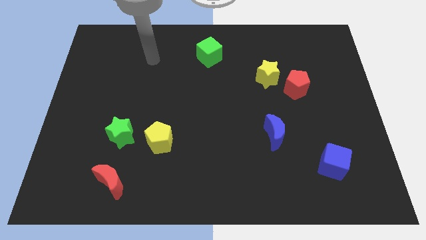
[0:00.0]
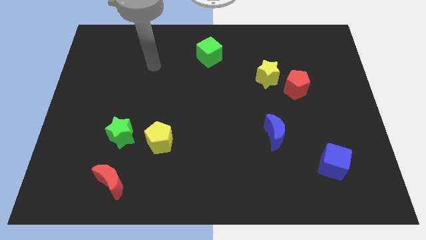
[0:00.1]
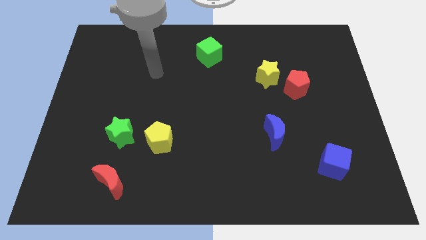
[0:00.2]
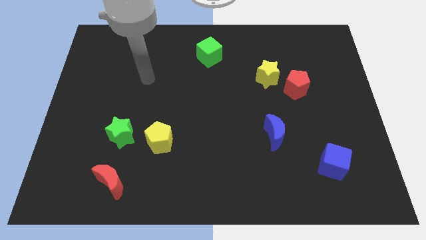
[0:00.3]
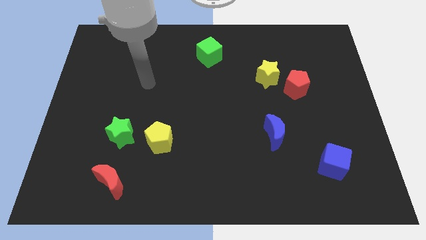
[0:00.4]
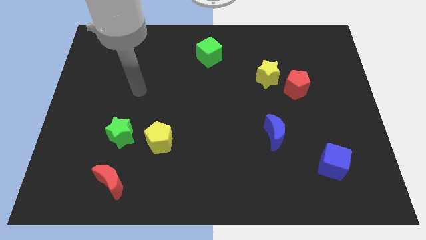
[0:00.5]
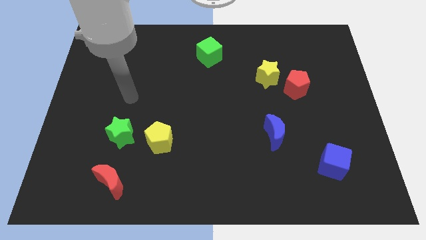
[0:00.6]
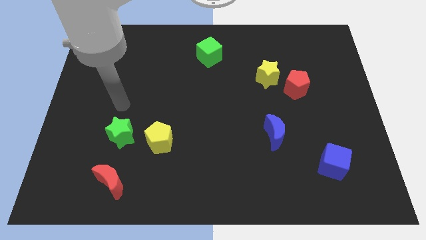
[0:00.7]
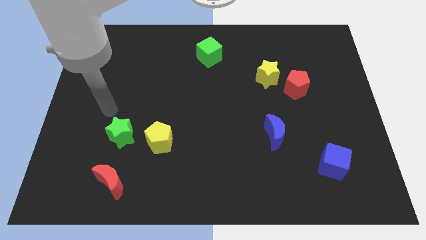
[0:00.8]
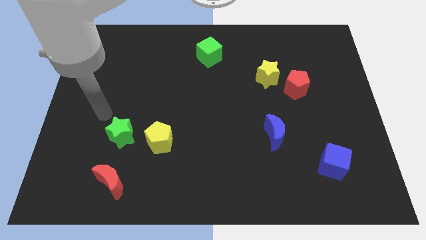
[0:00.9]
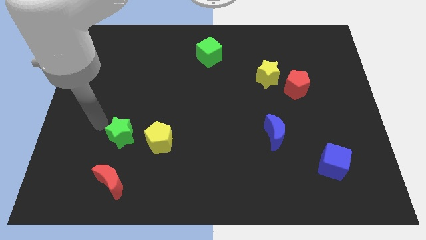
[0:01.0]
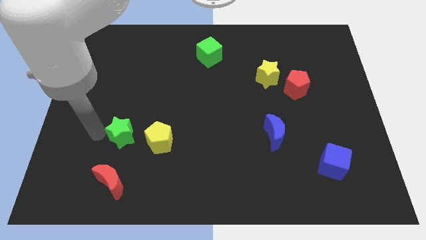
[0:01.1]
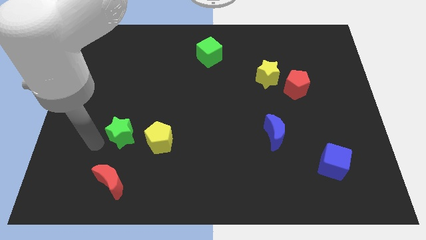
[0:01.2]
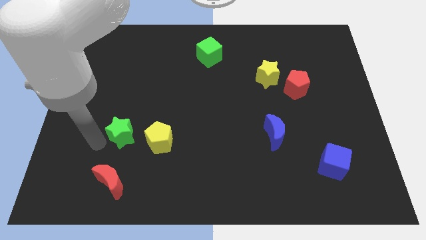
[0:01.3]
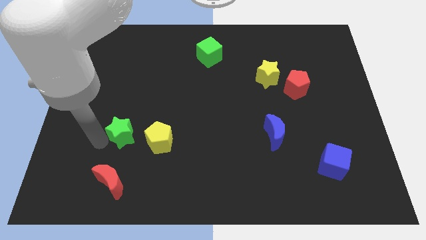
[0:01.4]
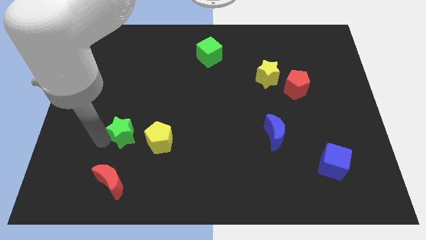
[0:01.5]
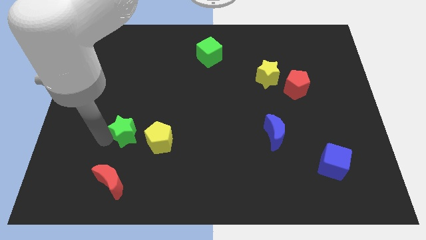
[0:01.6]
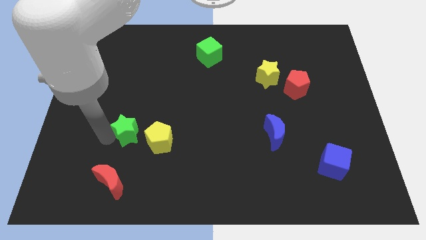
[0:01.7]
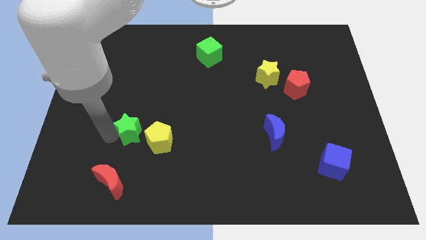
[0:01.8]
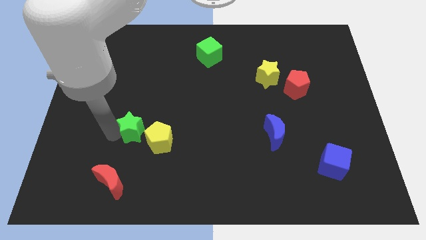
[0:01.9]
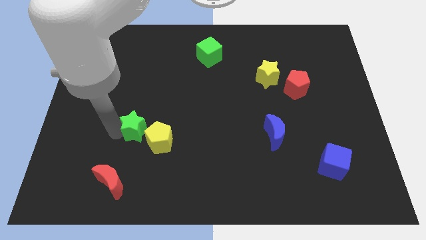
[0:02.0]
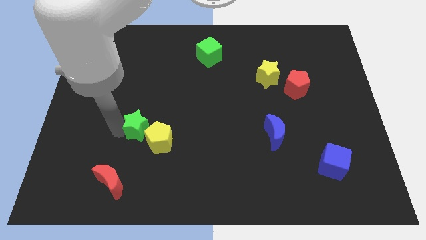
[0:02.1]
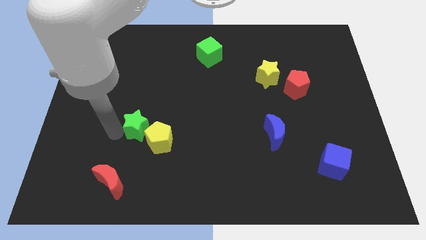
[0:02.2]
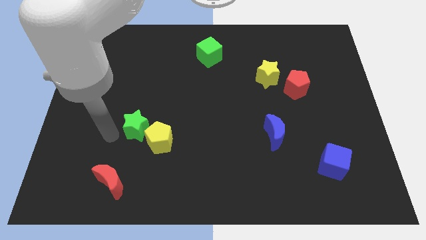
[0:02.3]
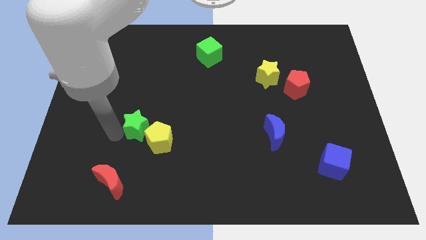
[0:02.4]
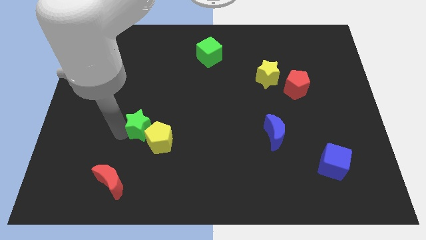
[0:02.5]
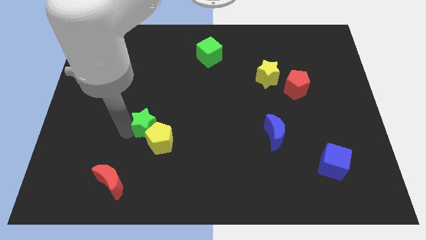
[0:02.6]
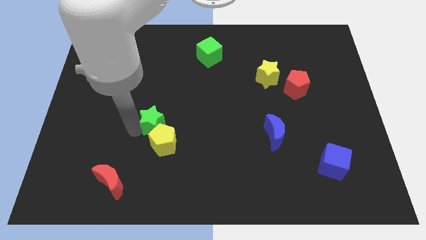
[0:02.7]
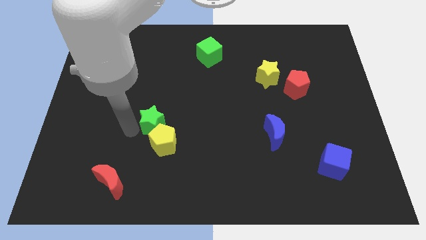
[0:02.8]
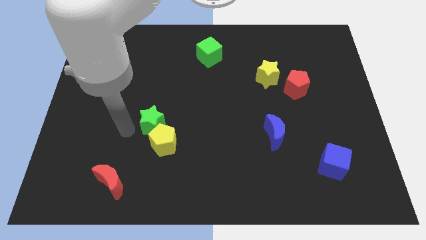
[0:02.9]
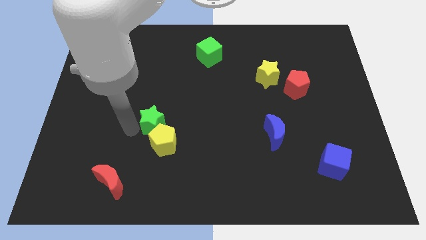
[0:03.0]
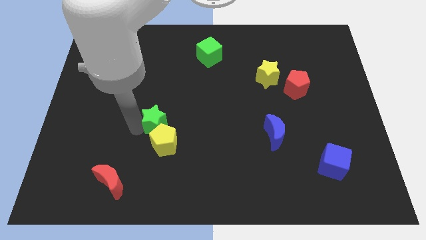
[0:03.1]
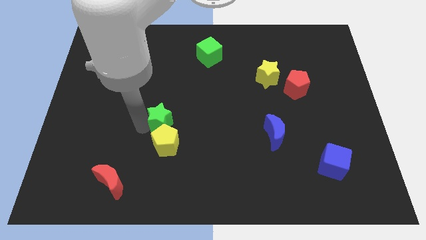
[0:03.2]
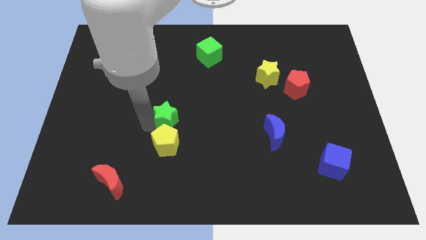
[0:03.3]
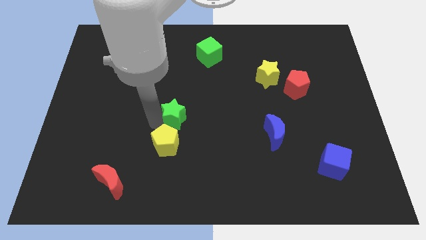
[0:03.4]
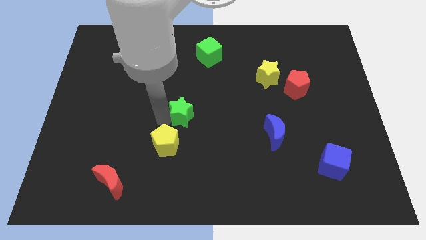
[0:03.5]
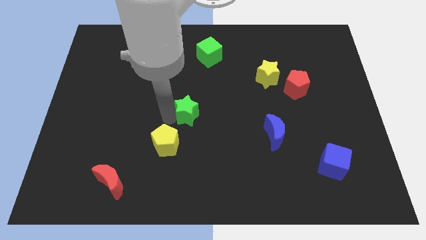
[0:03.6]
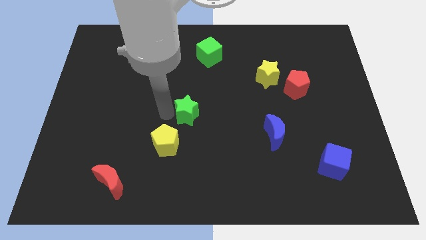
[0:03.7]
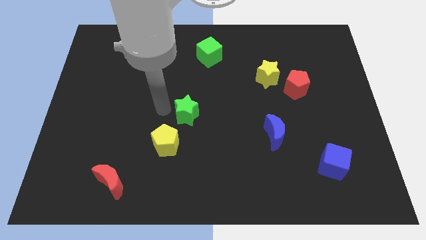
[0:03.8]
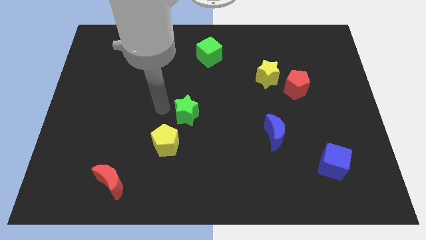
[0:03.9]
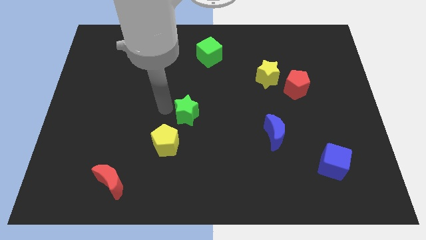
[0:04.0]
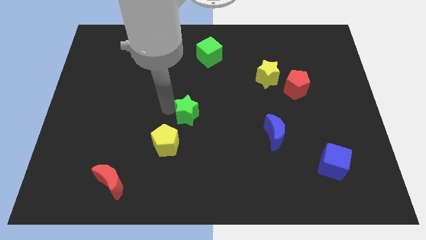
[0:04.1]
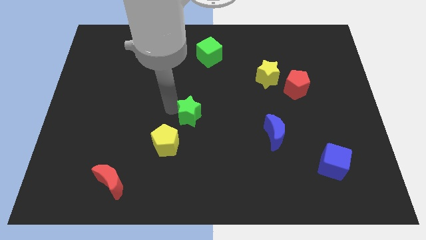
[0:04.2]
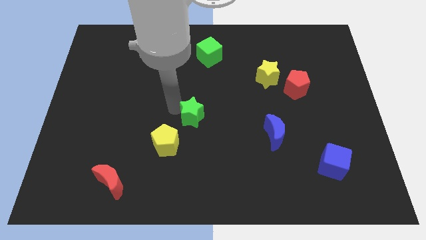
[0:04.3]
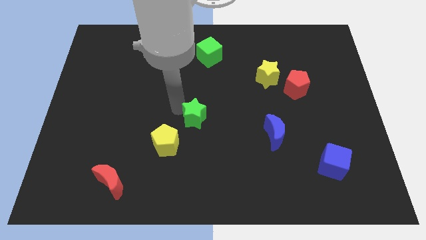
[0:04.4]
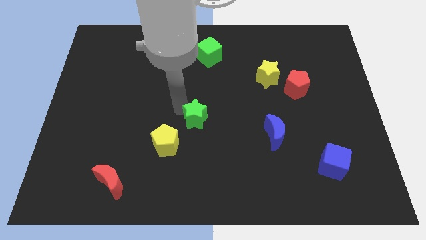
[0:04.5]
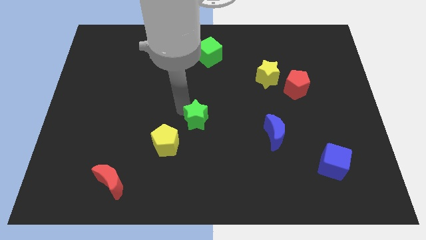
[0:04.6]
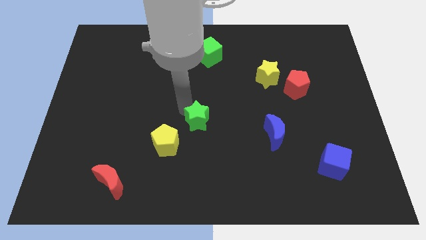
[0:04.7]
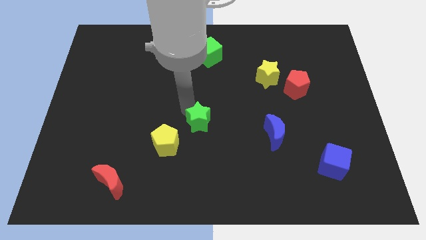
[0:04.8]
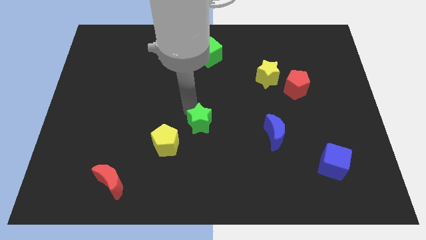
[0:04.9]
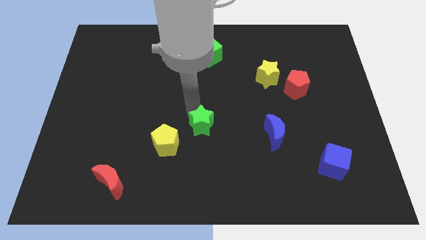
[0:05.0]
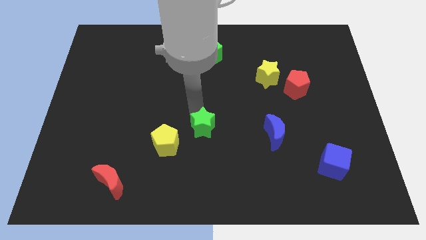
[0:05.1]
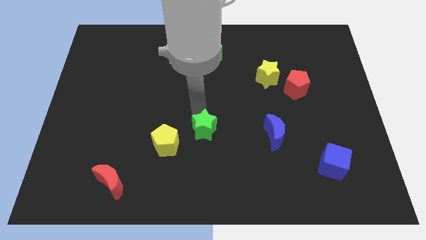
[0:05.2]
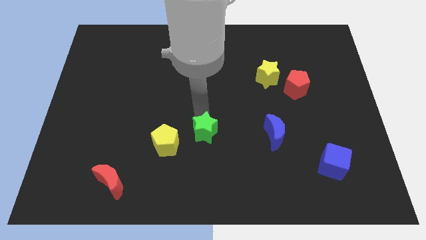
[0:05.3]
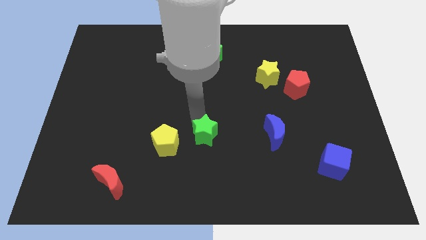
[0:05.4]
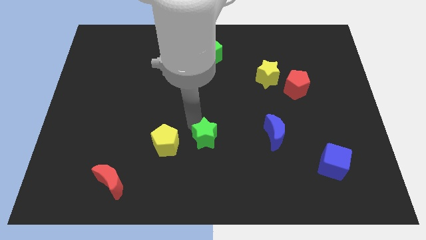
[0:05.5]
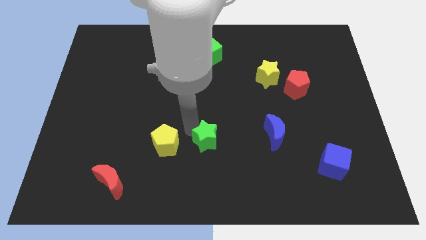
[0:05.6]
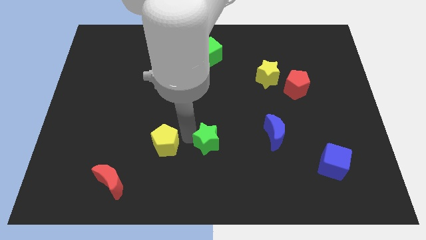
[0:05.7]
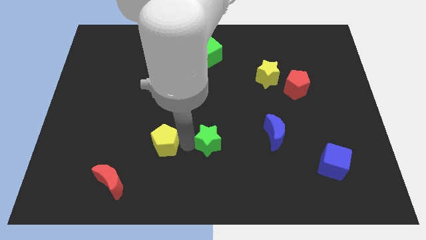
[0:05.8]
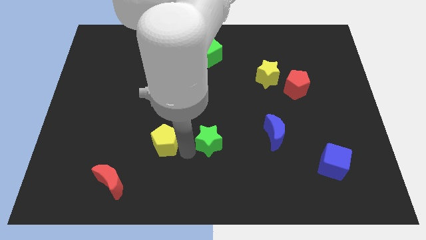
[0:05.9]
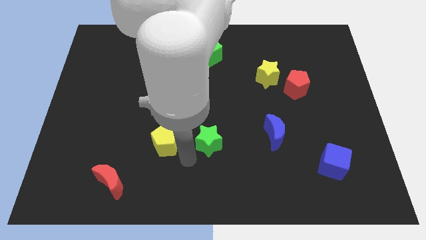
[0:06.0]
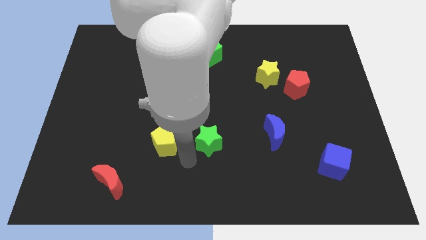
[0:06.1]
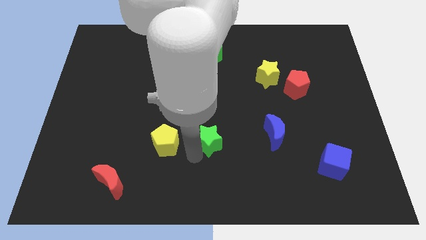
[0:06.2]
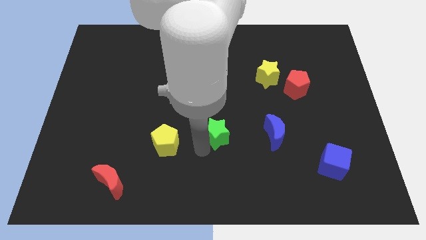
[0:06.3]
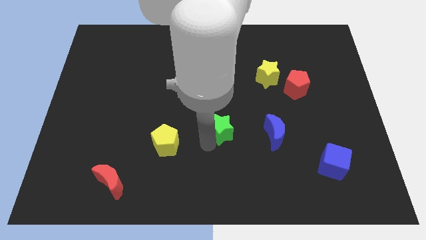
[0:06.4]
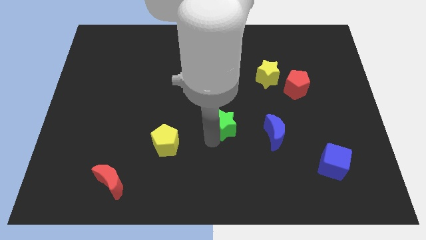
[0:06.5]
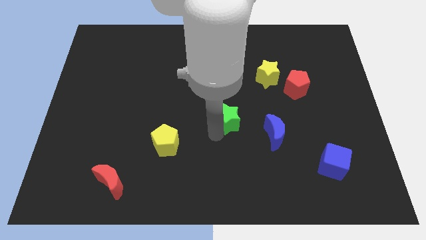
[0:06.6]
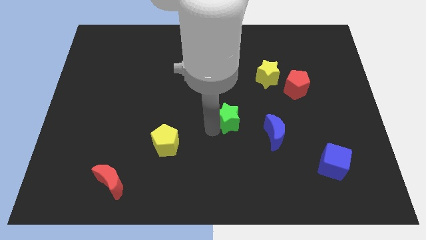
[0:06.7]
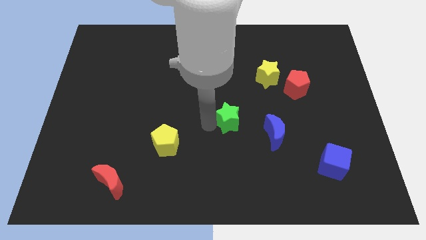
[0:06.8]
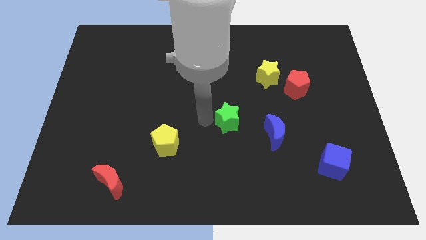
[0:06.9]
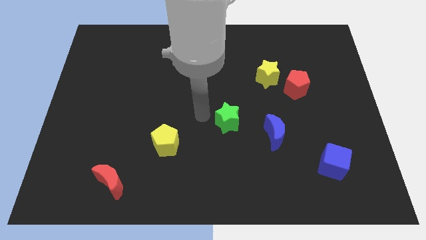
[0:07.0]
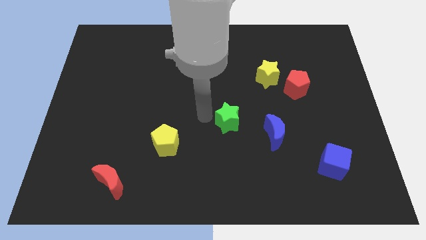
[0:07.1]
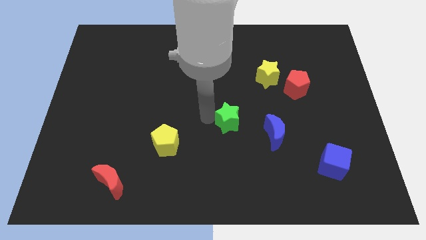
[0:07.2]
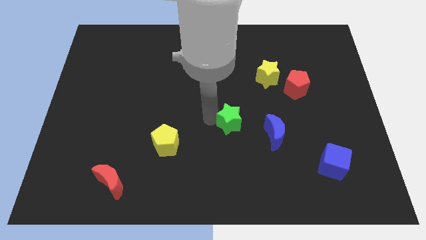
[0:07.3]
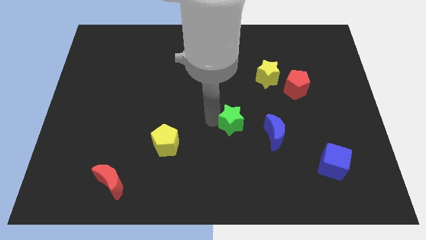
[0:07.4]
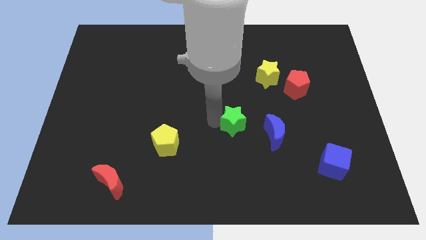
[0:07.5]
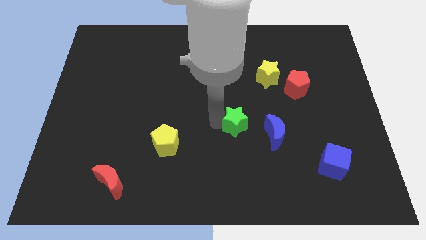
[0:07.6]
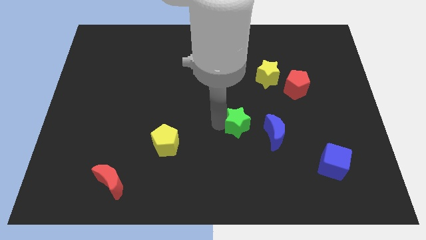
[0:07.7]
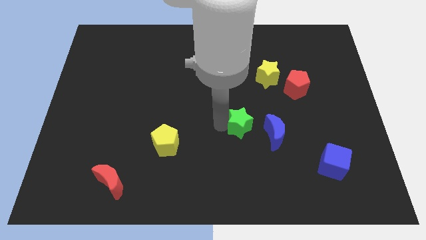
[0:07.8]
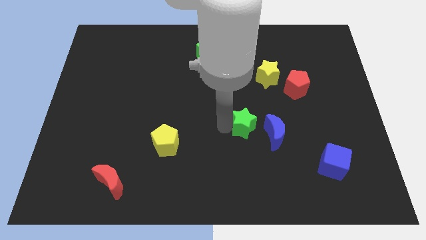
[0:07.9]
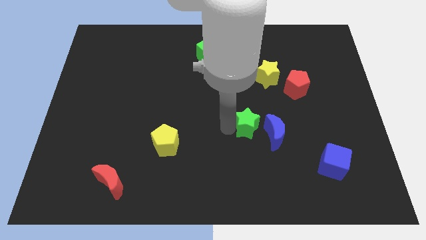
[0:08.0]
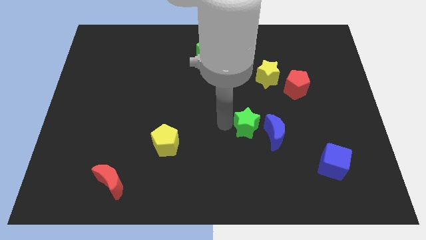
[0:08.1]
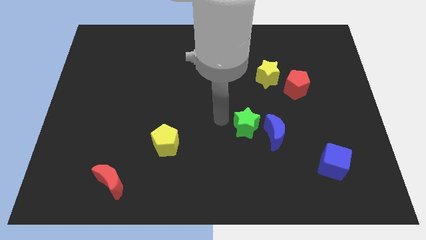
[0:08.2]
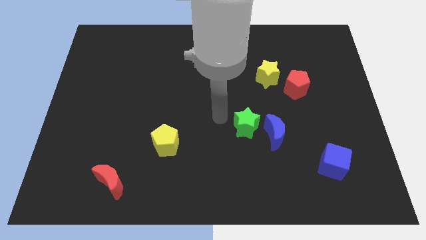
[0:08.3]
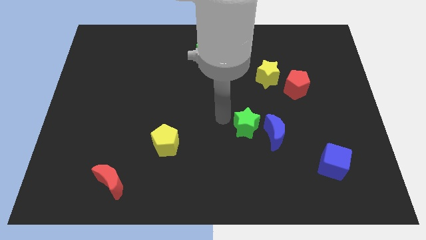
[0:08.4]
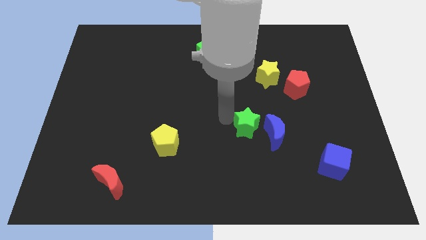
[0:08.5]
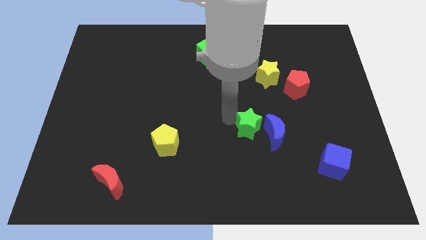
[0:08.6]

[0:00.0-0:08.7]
put the green star towards the blue moon
